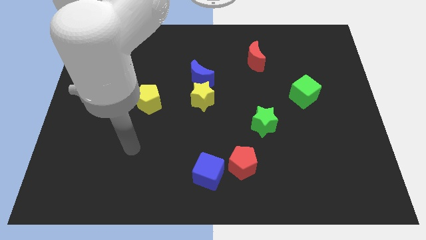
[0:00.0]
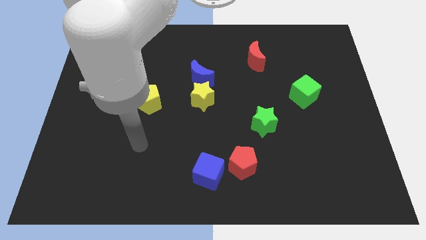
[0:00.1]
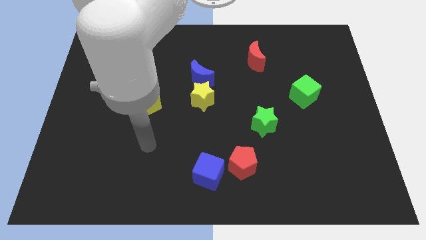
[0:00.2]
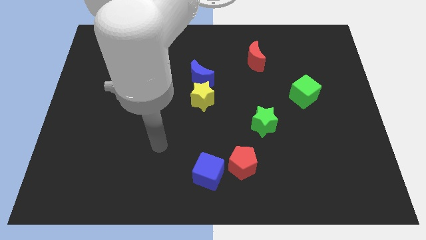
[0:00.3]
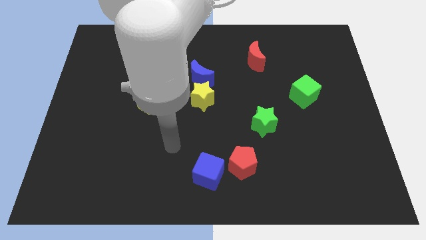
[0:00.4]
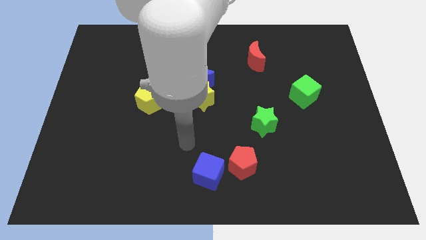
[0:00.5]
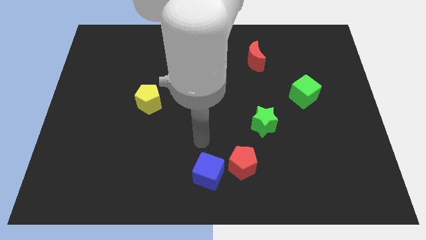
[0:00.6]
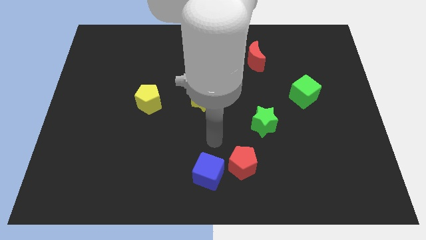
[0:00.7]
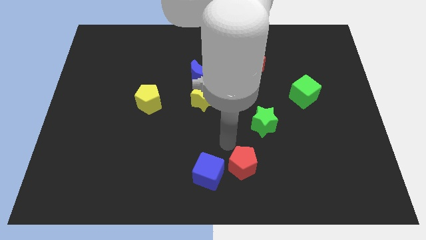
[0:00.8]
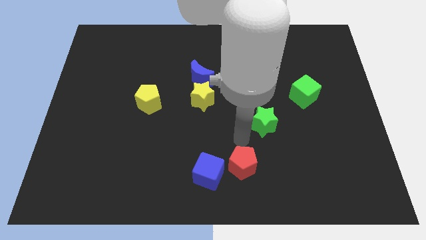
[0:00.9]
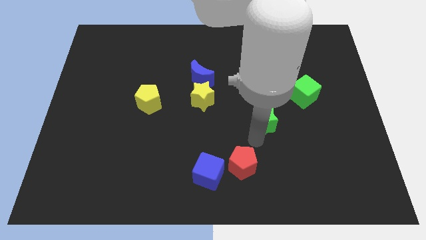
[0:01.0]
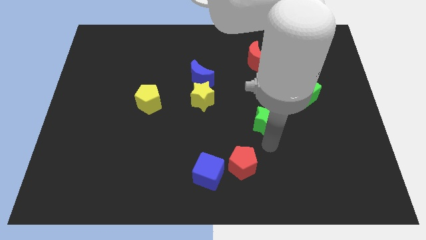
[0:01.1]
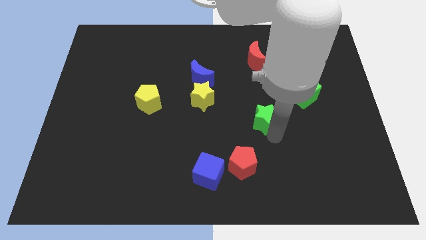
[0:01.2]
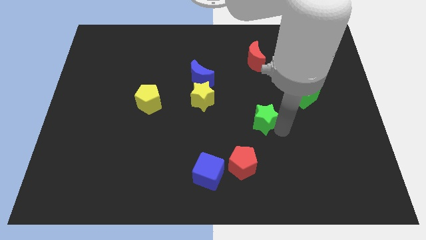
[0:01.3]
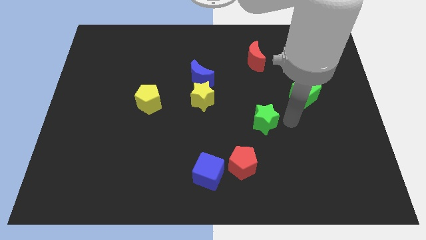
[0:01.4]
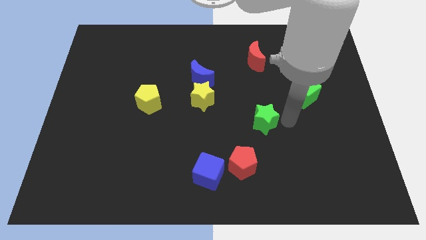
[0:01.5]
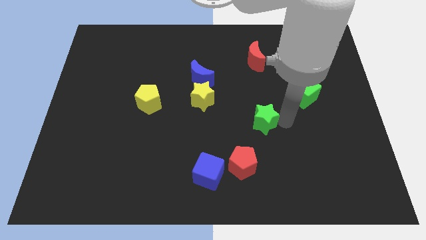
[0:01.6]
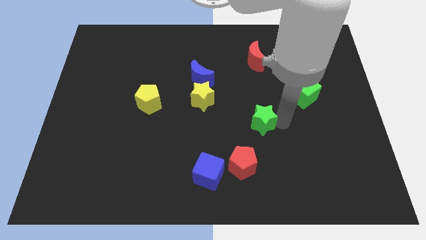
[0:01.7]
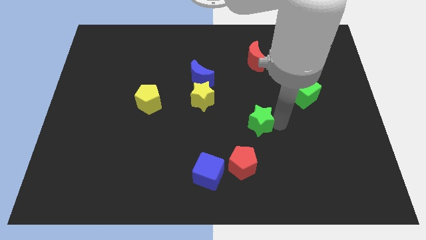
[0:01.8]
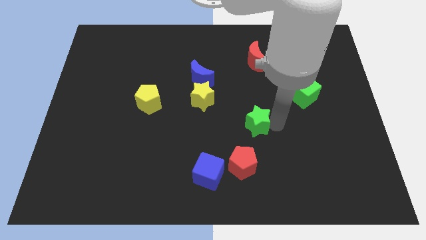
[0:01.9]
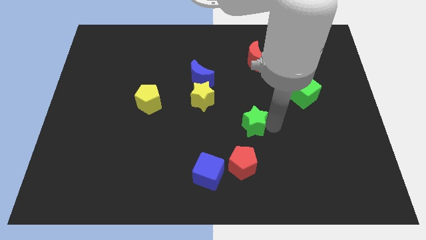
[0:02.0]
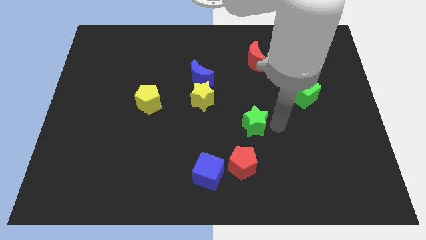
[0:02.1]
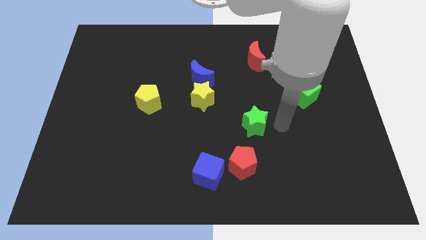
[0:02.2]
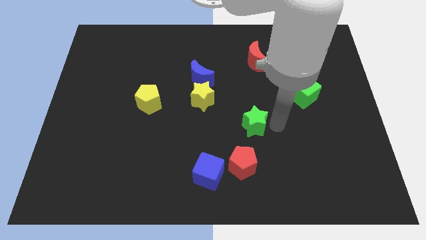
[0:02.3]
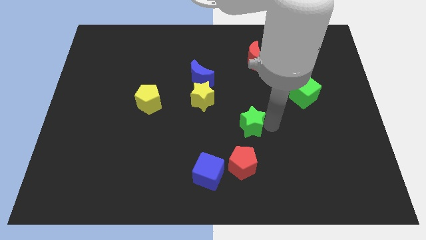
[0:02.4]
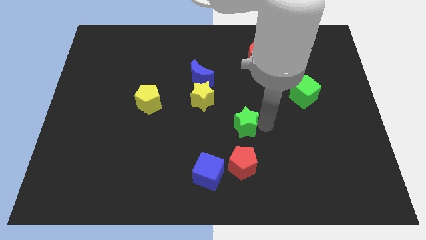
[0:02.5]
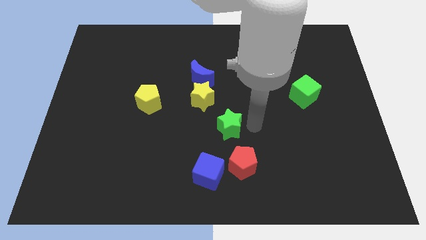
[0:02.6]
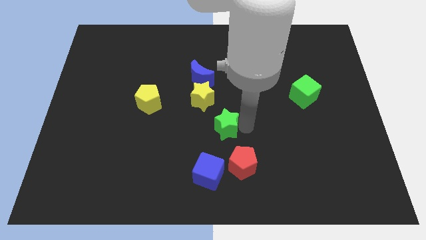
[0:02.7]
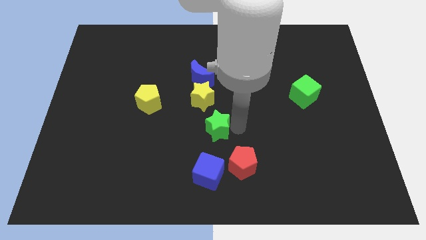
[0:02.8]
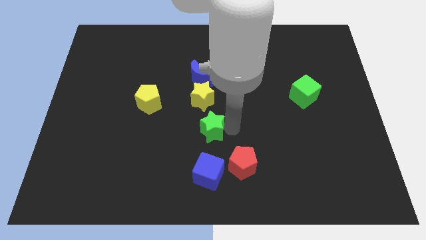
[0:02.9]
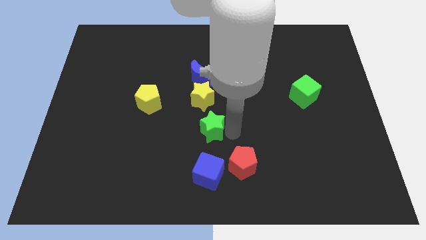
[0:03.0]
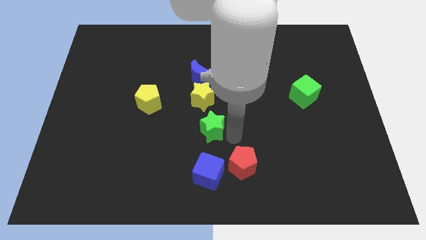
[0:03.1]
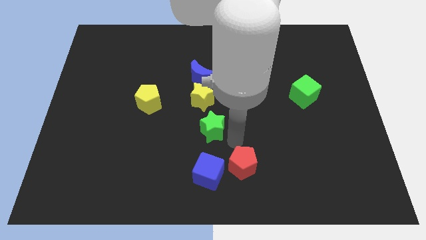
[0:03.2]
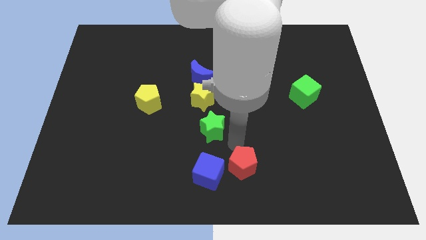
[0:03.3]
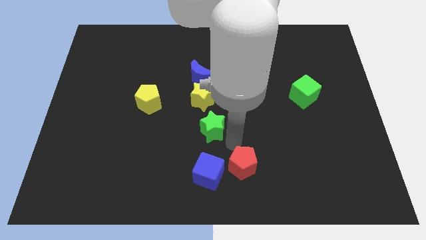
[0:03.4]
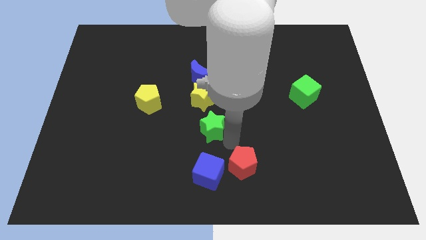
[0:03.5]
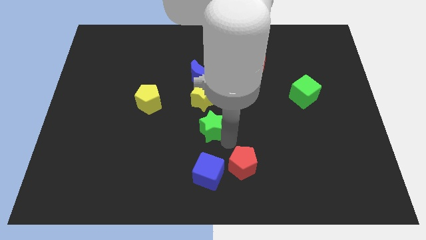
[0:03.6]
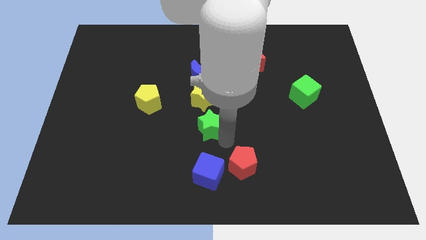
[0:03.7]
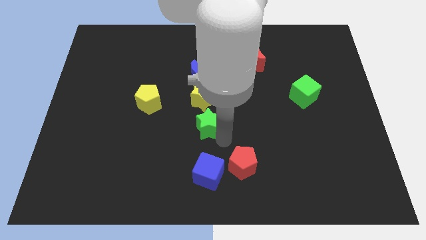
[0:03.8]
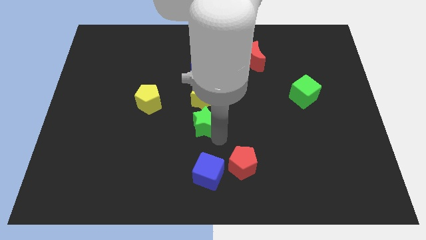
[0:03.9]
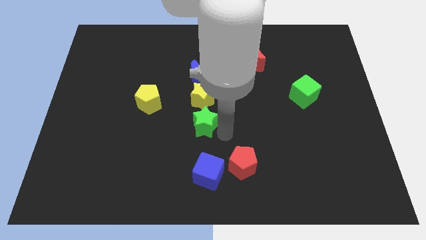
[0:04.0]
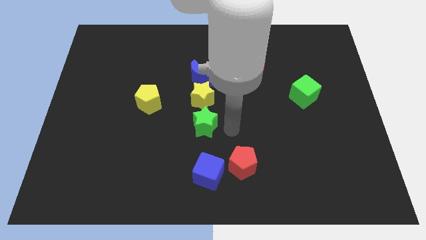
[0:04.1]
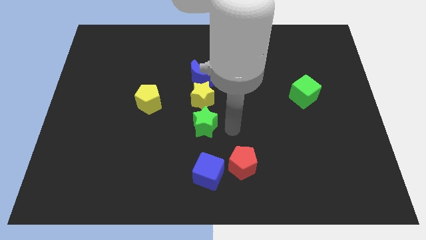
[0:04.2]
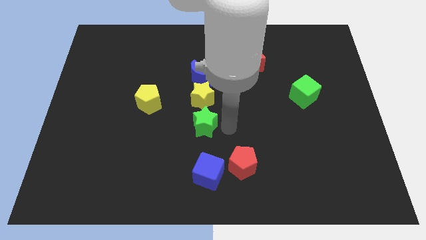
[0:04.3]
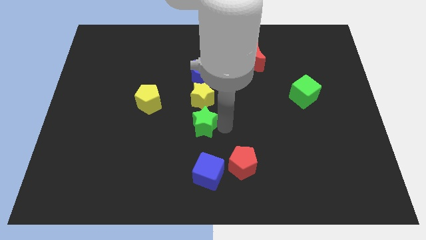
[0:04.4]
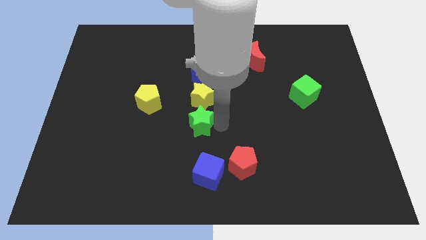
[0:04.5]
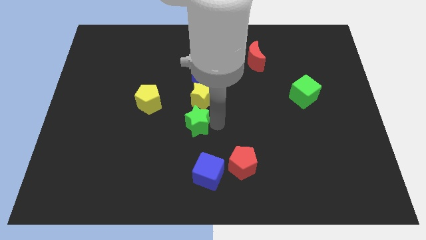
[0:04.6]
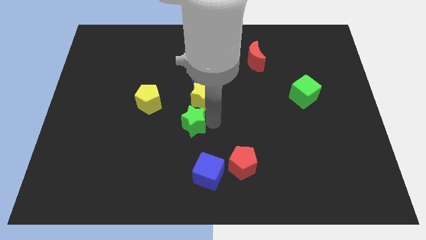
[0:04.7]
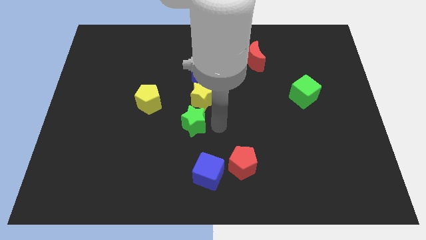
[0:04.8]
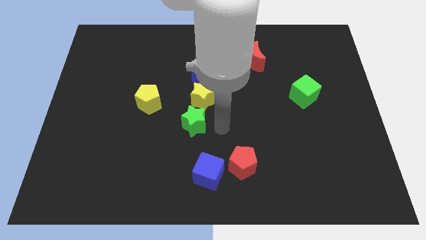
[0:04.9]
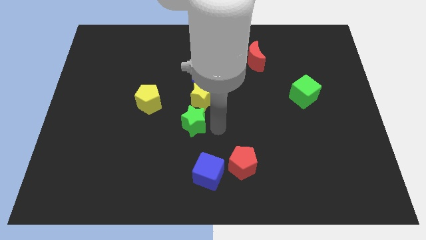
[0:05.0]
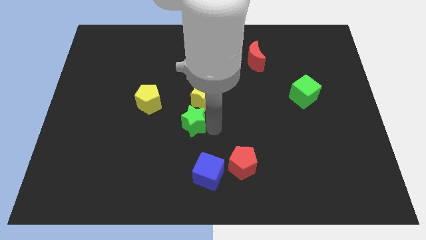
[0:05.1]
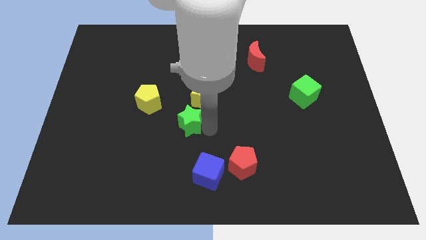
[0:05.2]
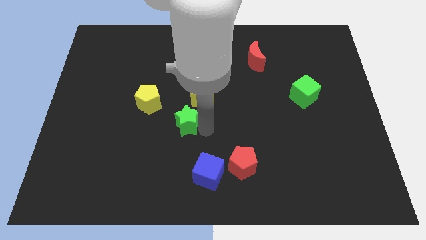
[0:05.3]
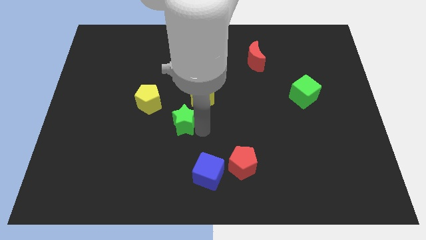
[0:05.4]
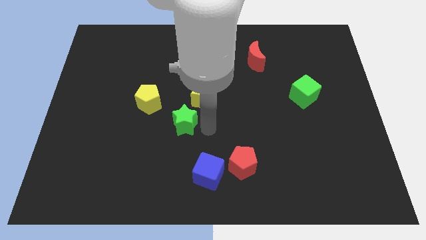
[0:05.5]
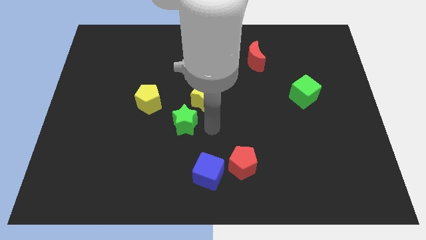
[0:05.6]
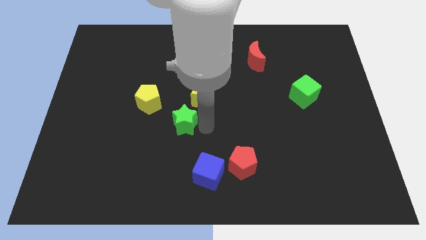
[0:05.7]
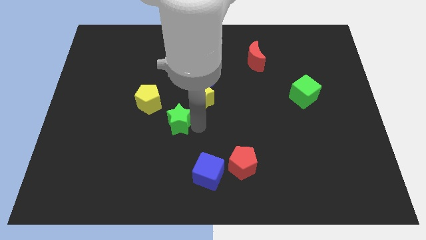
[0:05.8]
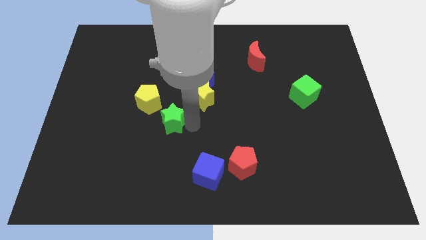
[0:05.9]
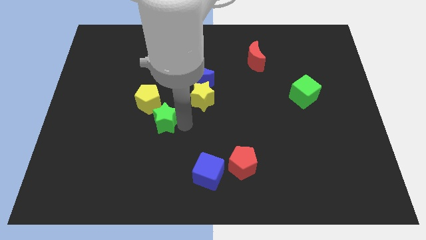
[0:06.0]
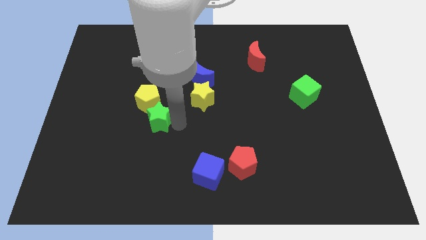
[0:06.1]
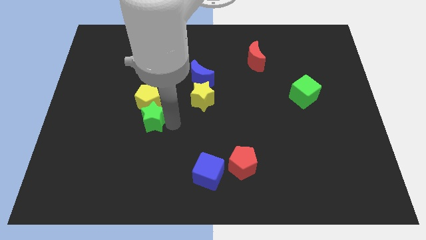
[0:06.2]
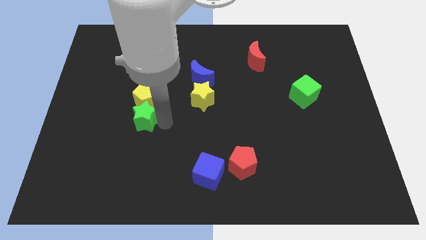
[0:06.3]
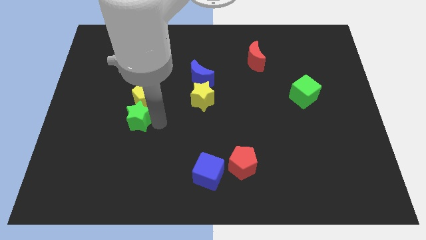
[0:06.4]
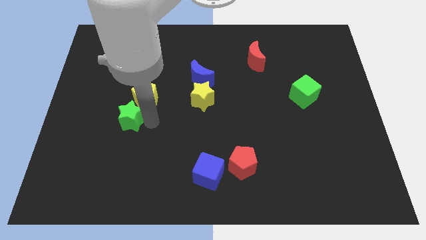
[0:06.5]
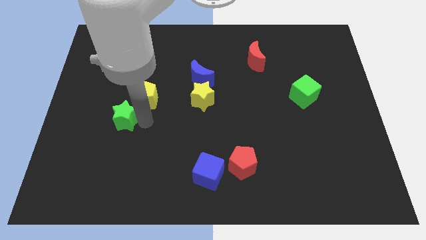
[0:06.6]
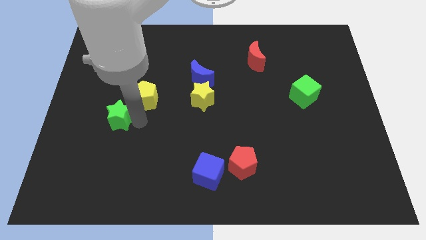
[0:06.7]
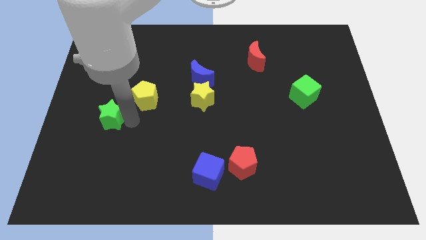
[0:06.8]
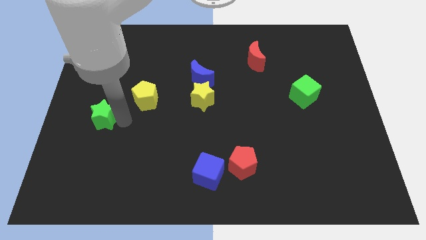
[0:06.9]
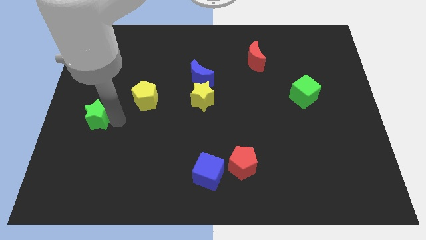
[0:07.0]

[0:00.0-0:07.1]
slide the green star to the left side of the board
